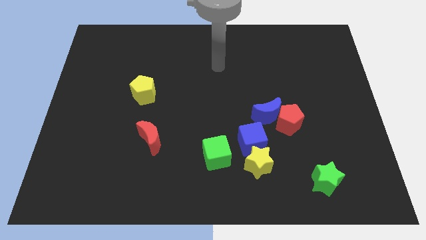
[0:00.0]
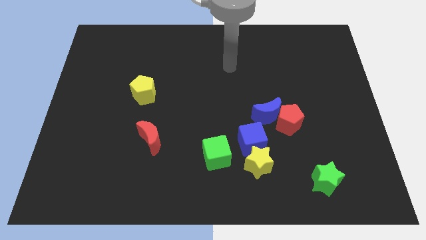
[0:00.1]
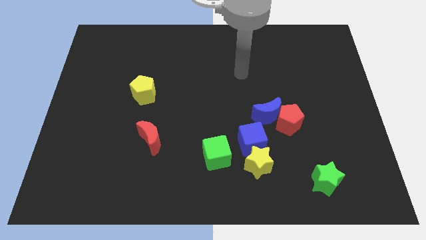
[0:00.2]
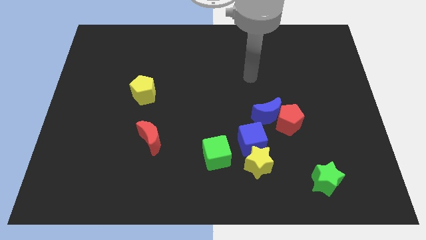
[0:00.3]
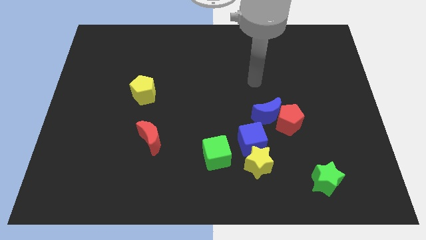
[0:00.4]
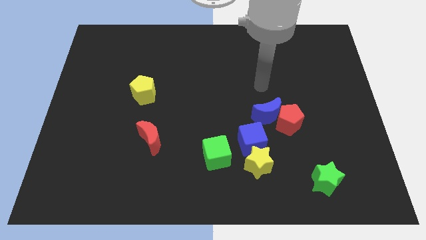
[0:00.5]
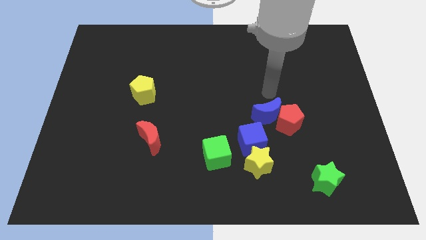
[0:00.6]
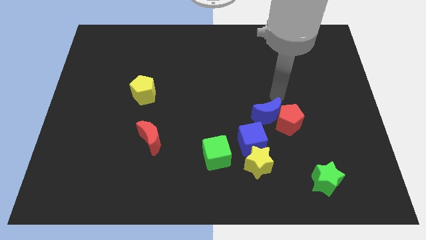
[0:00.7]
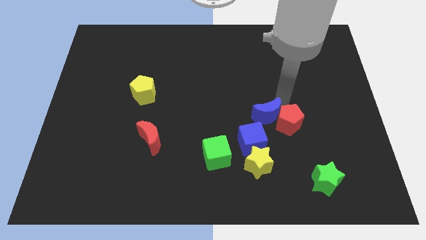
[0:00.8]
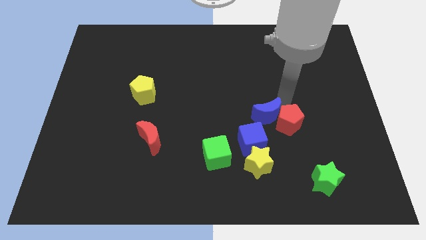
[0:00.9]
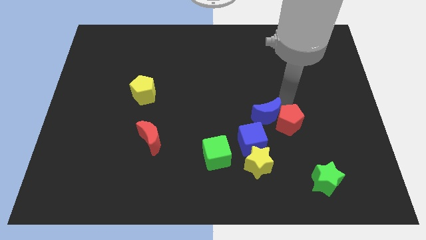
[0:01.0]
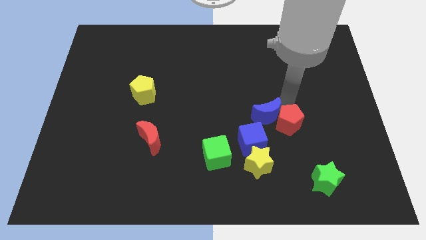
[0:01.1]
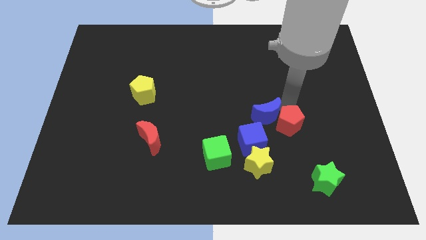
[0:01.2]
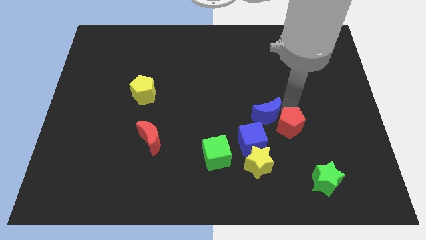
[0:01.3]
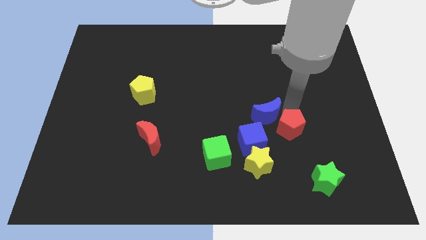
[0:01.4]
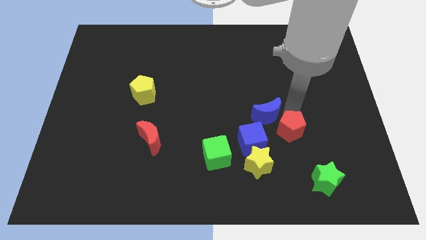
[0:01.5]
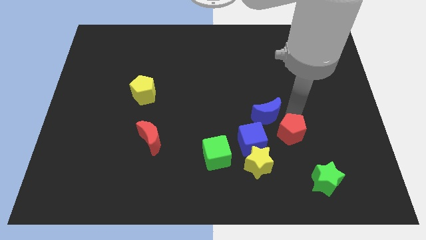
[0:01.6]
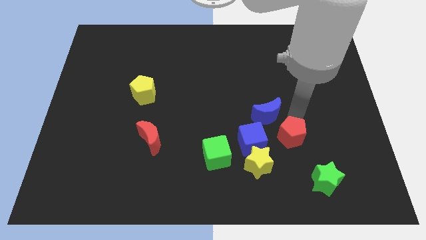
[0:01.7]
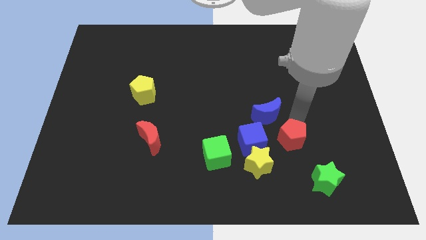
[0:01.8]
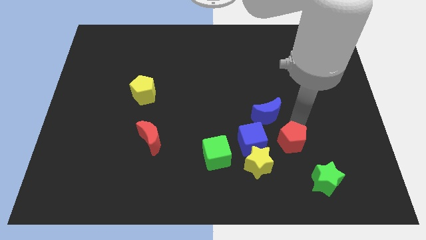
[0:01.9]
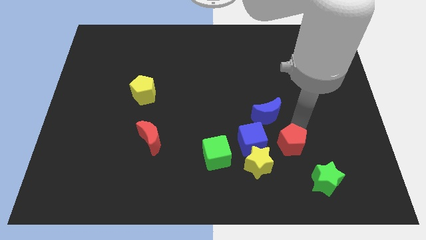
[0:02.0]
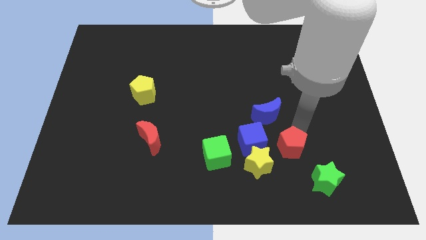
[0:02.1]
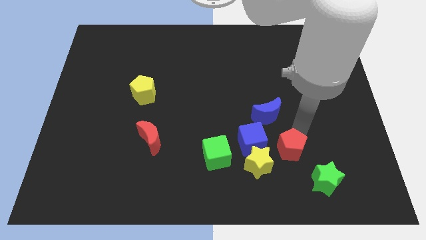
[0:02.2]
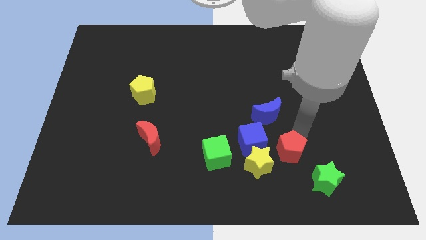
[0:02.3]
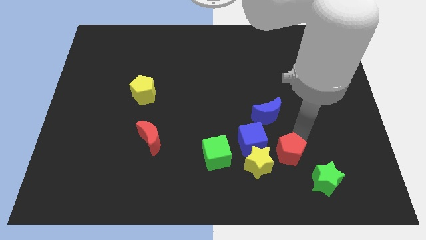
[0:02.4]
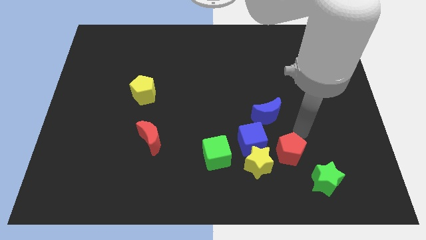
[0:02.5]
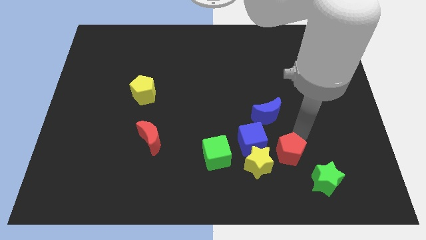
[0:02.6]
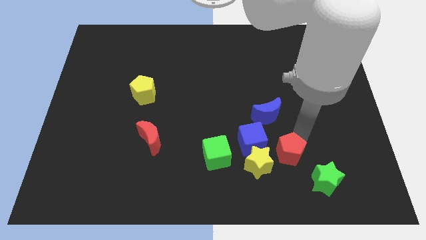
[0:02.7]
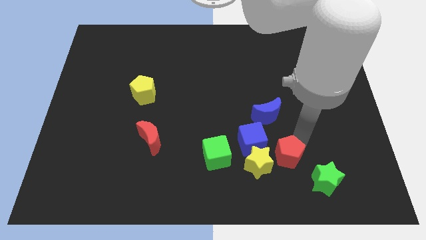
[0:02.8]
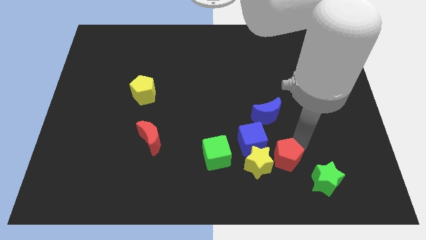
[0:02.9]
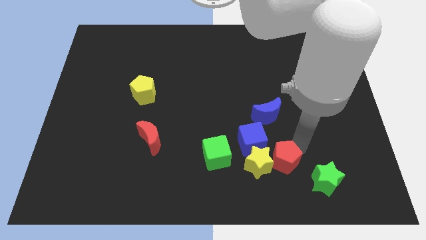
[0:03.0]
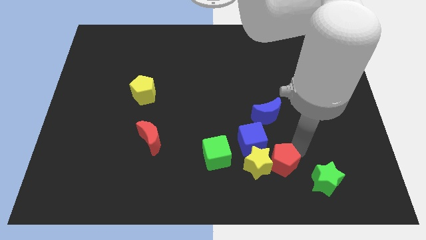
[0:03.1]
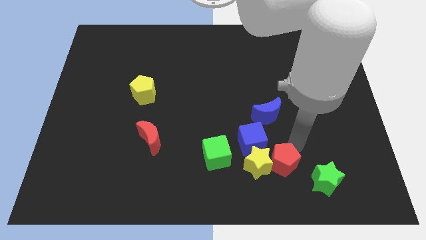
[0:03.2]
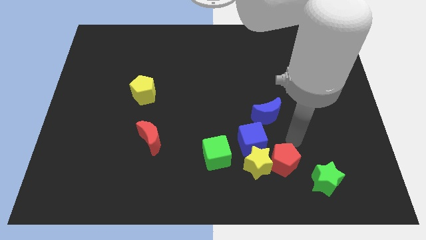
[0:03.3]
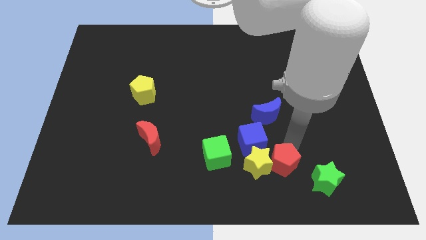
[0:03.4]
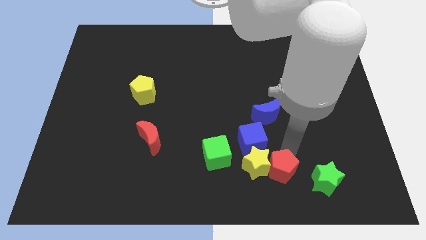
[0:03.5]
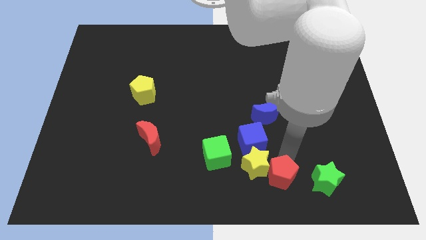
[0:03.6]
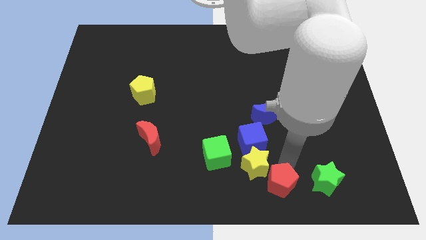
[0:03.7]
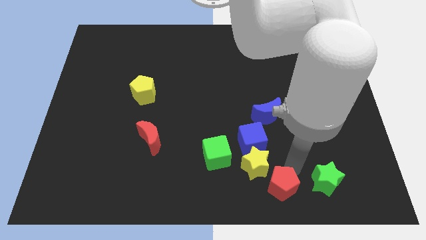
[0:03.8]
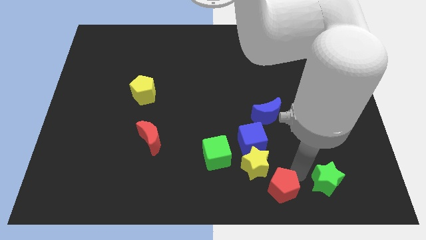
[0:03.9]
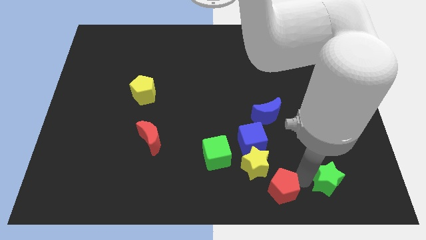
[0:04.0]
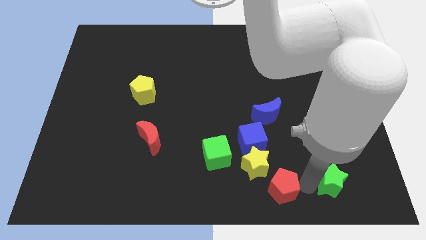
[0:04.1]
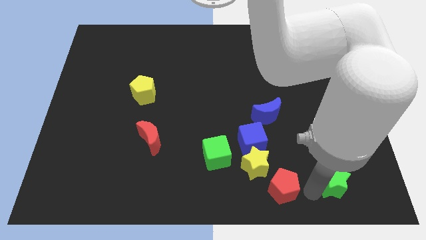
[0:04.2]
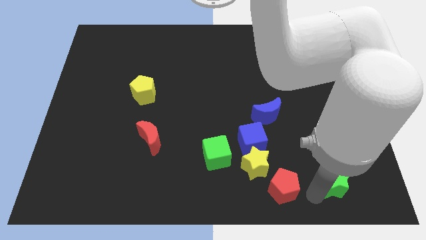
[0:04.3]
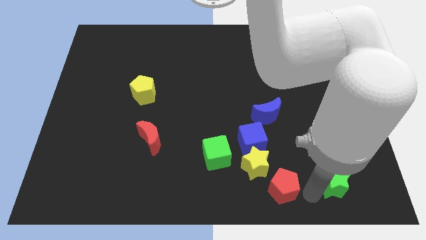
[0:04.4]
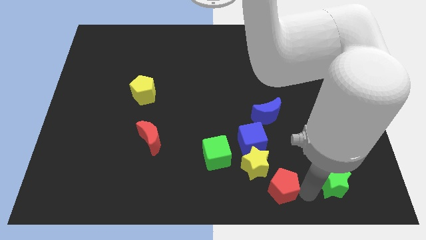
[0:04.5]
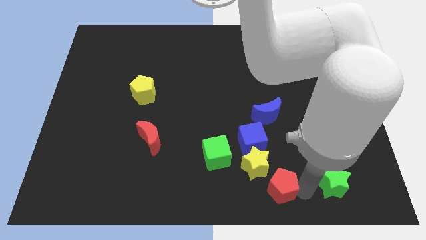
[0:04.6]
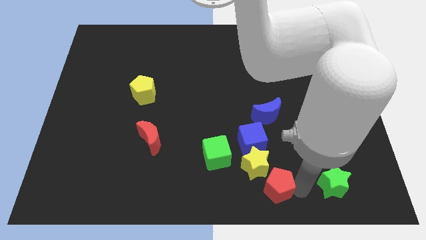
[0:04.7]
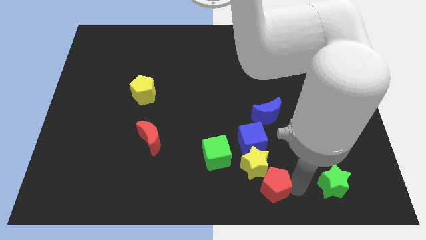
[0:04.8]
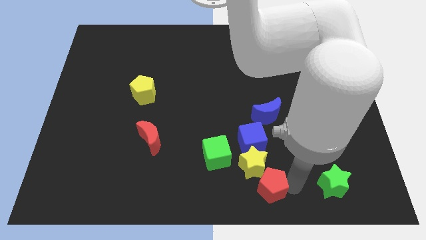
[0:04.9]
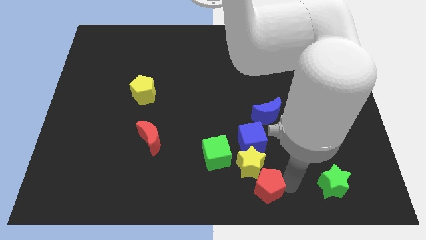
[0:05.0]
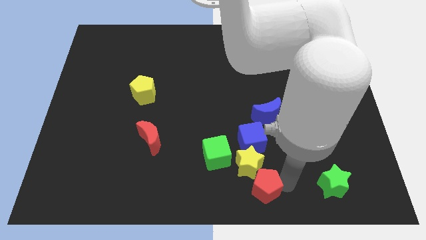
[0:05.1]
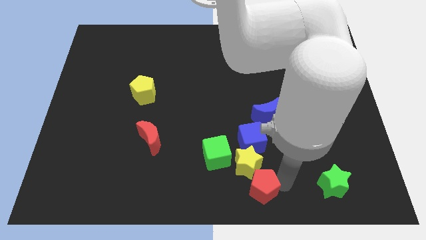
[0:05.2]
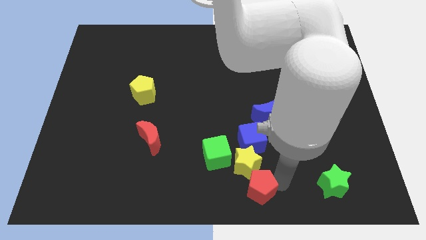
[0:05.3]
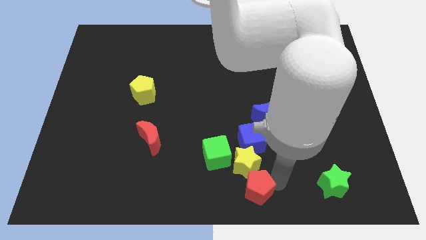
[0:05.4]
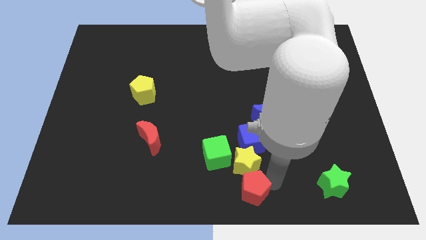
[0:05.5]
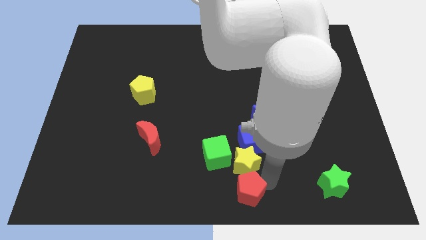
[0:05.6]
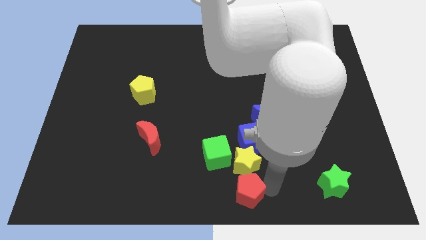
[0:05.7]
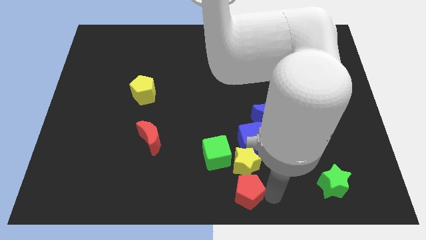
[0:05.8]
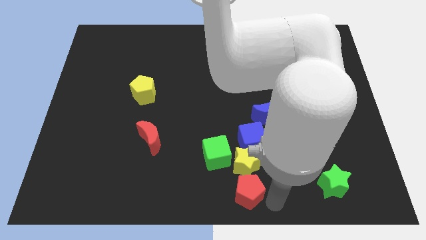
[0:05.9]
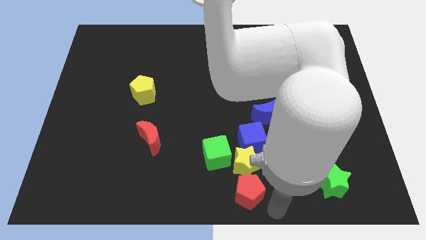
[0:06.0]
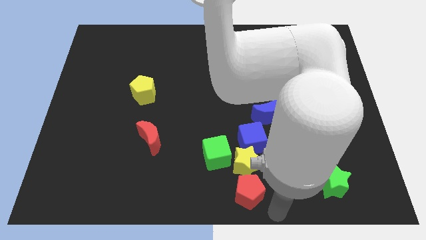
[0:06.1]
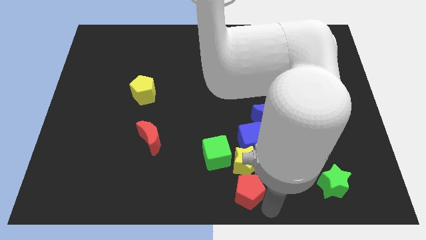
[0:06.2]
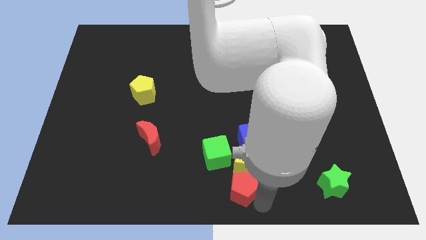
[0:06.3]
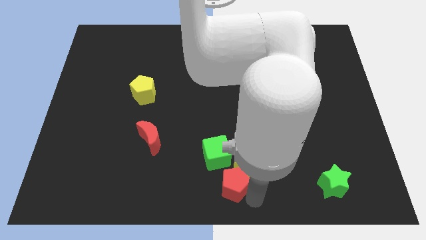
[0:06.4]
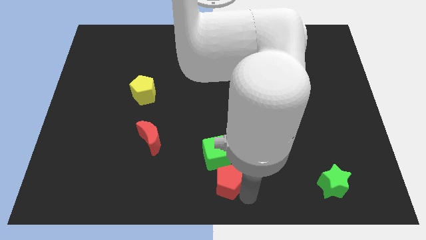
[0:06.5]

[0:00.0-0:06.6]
move the red pentagon to the bottom left side of the blue cube
